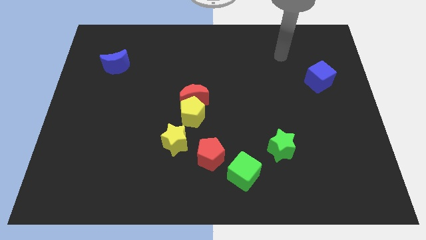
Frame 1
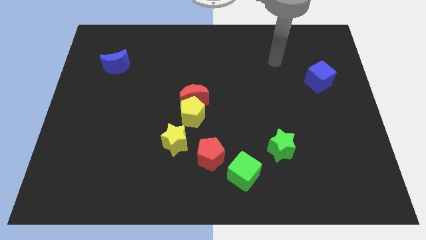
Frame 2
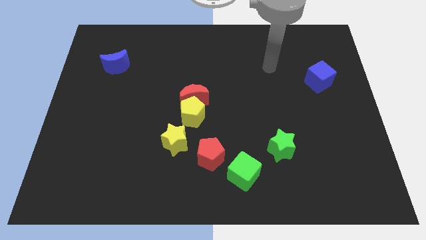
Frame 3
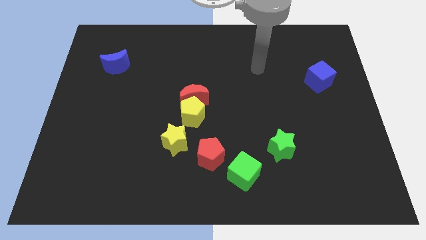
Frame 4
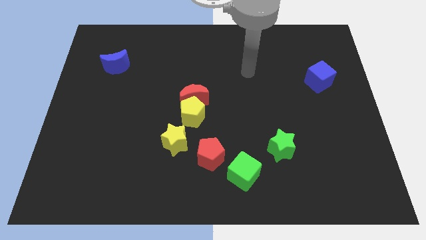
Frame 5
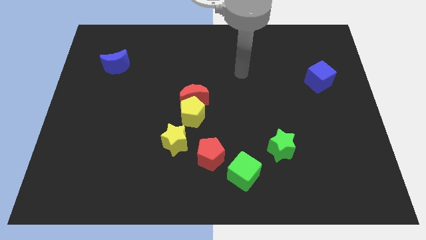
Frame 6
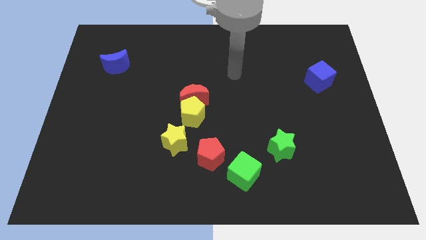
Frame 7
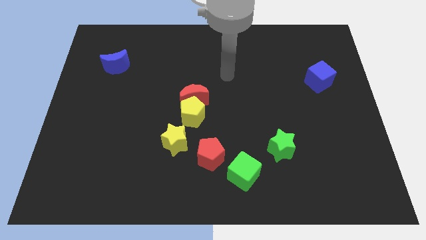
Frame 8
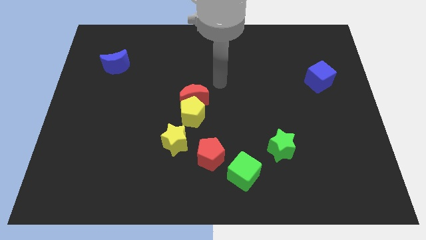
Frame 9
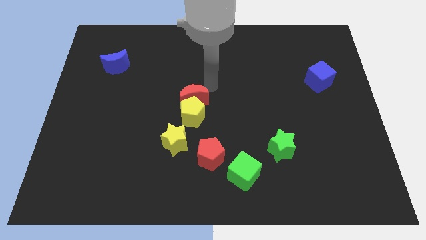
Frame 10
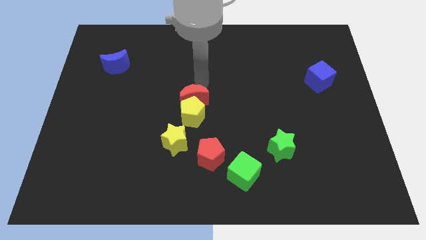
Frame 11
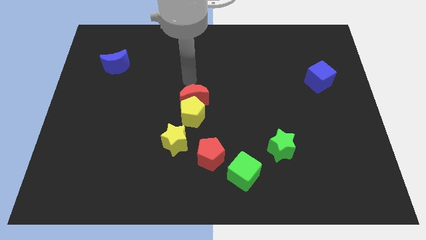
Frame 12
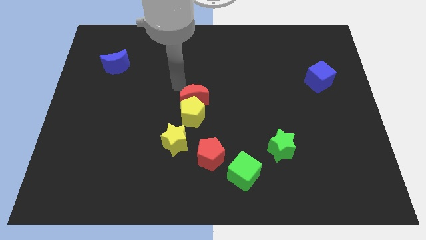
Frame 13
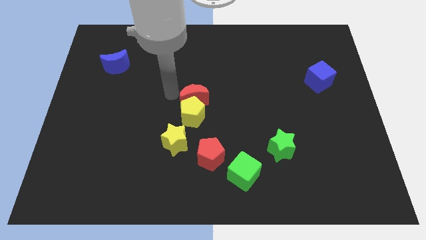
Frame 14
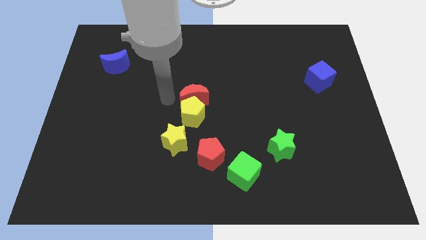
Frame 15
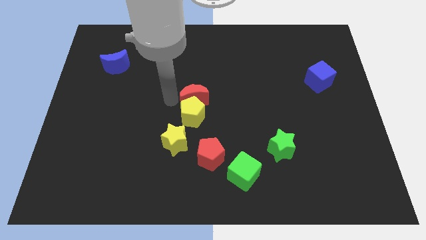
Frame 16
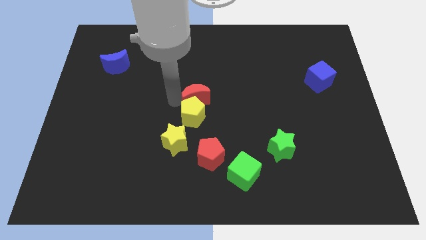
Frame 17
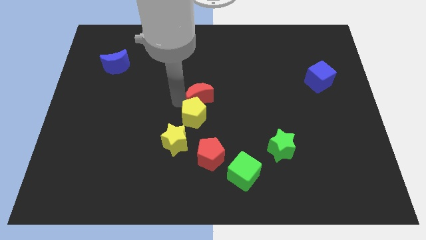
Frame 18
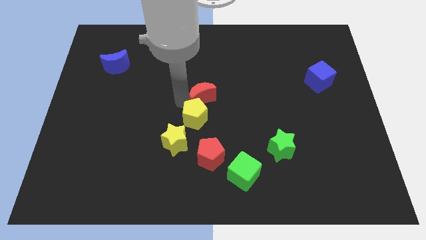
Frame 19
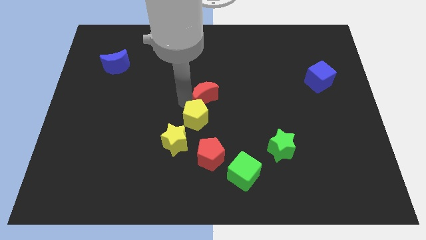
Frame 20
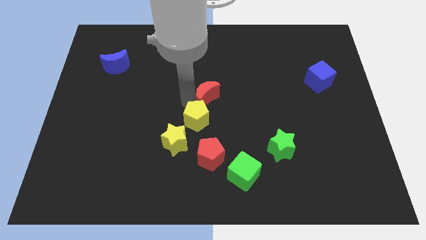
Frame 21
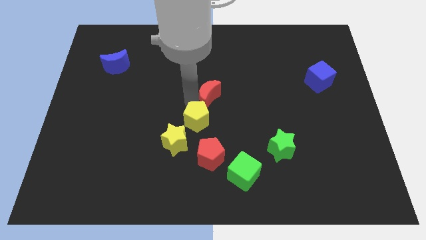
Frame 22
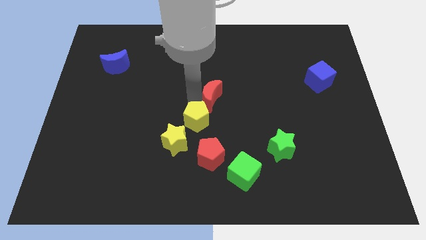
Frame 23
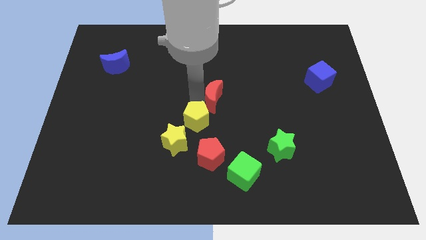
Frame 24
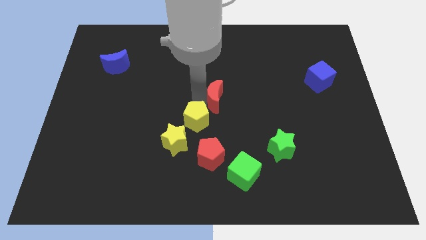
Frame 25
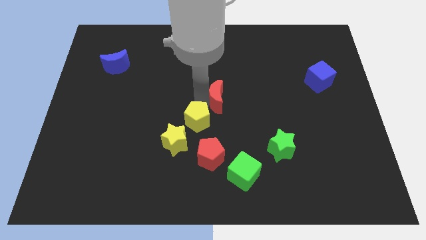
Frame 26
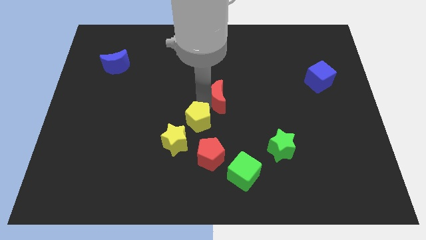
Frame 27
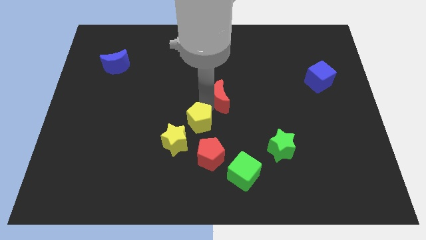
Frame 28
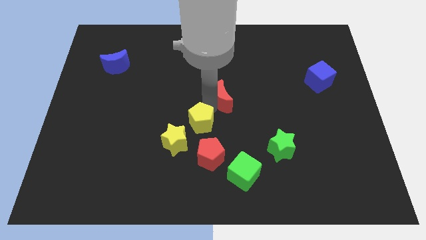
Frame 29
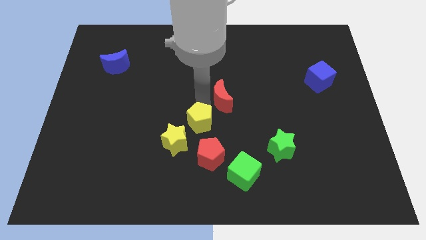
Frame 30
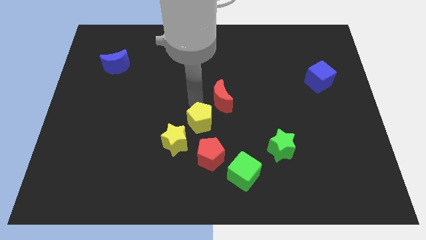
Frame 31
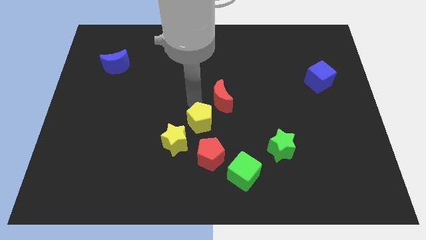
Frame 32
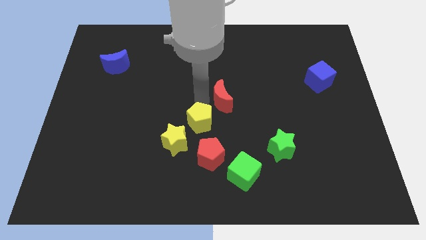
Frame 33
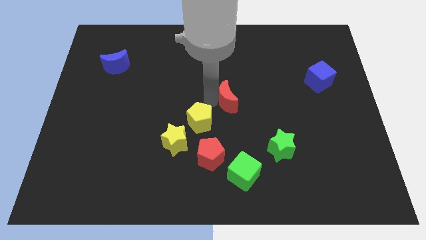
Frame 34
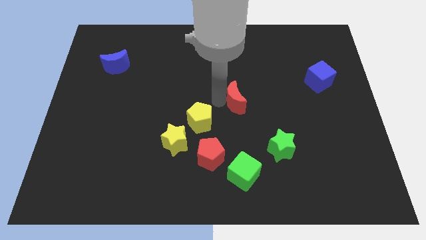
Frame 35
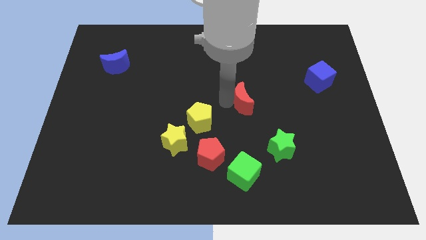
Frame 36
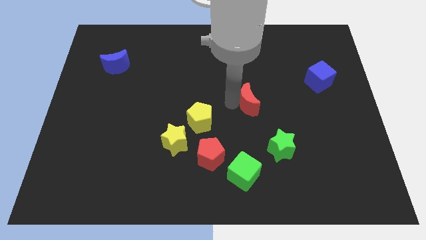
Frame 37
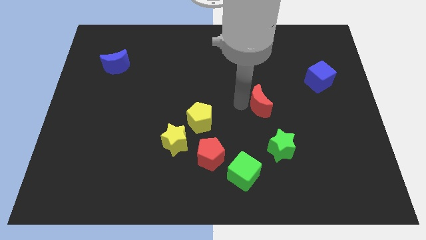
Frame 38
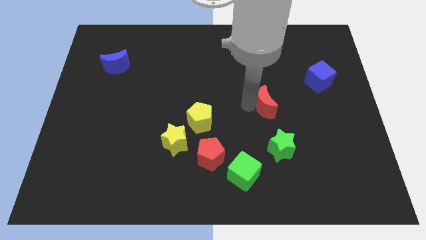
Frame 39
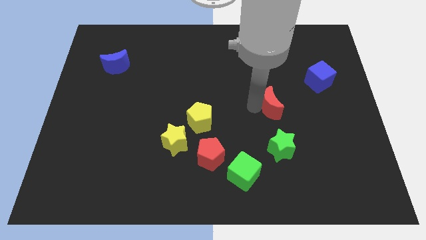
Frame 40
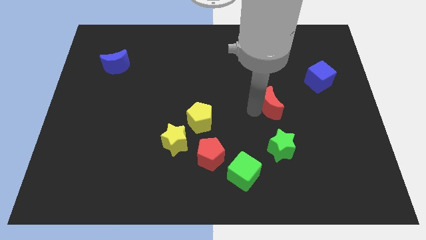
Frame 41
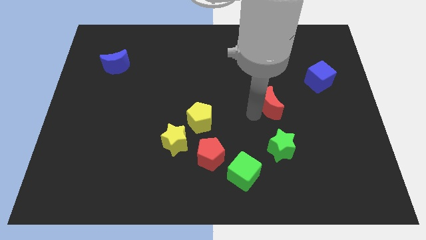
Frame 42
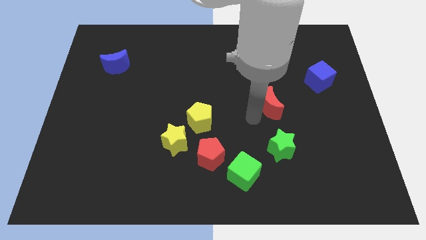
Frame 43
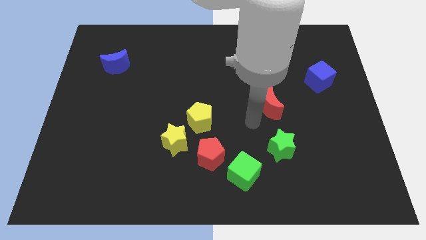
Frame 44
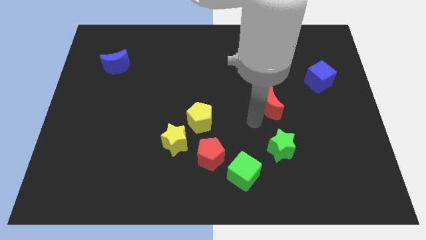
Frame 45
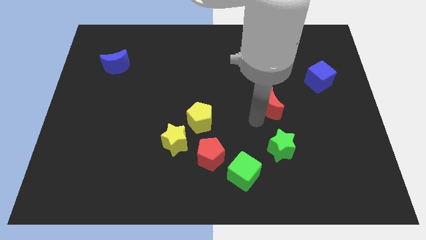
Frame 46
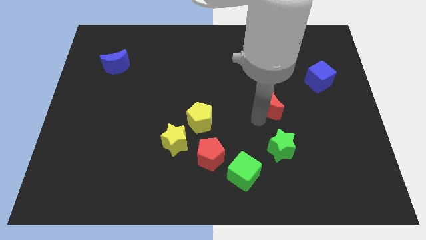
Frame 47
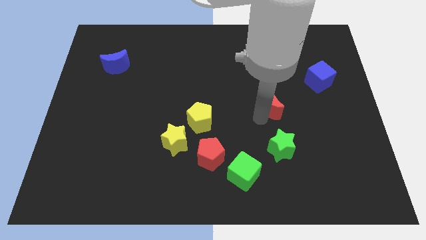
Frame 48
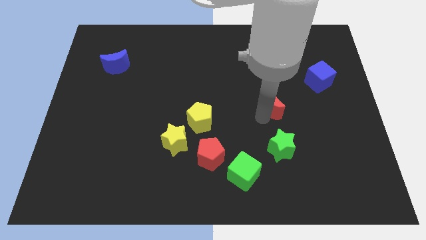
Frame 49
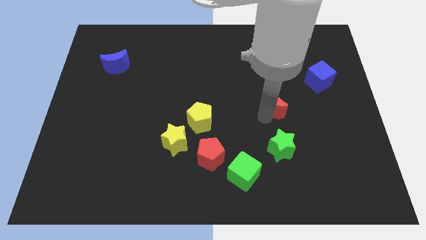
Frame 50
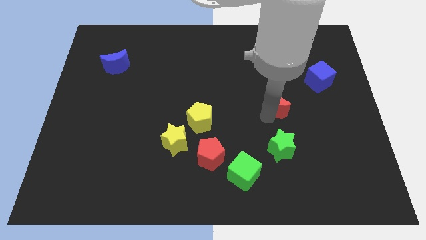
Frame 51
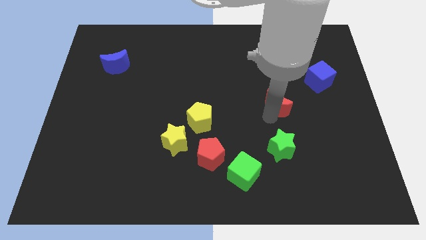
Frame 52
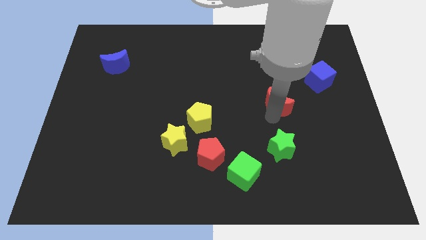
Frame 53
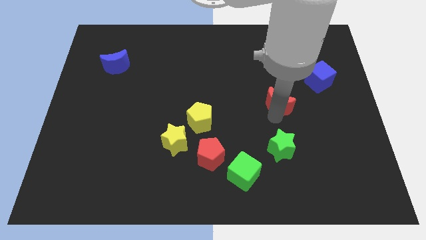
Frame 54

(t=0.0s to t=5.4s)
slide the red moon to the right

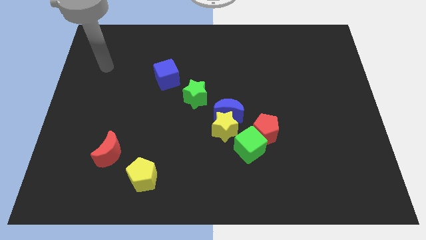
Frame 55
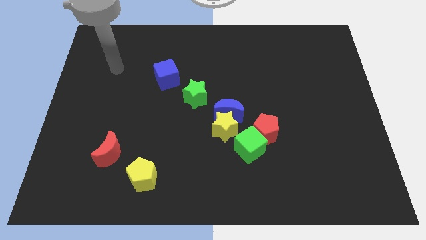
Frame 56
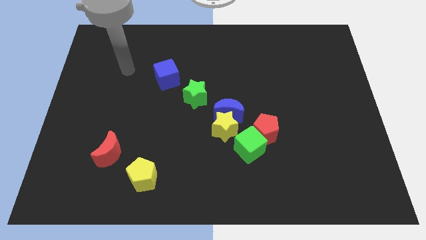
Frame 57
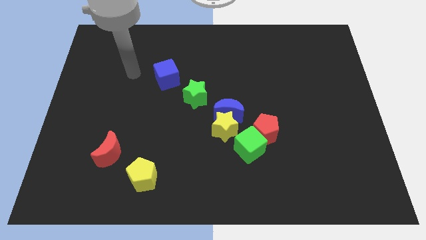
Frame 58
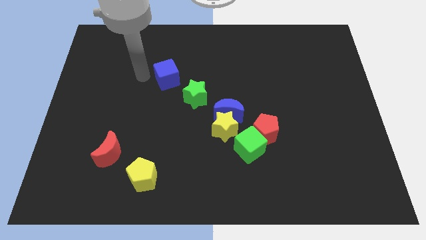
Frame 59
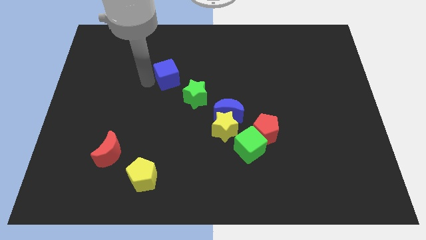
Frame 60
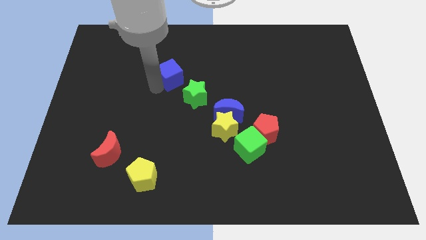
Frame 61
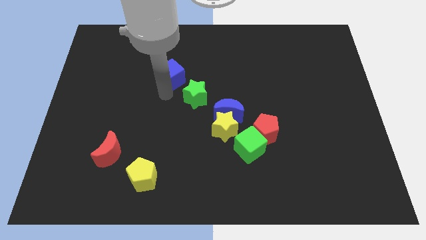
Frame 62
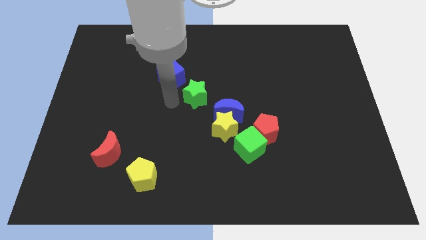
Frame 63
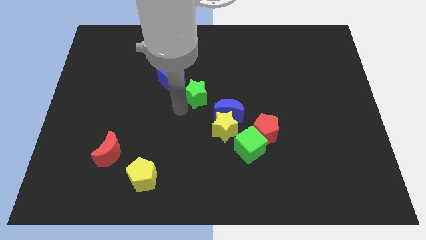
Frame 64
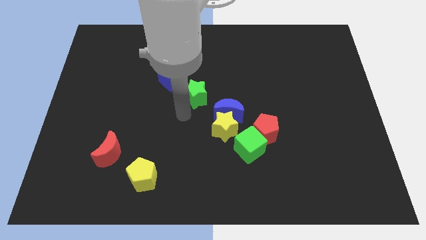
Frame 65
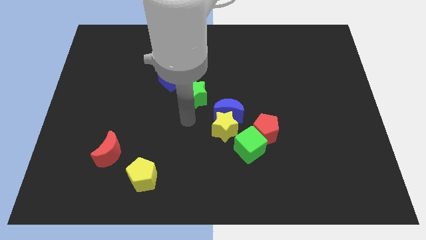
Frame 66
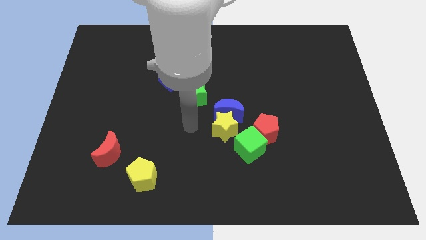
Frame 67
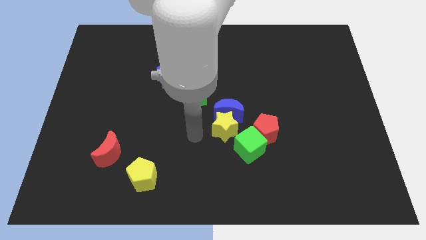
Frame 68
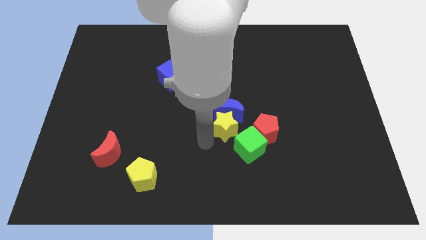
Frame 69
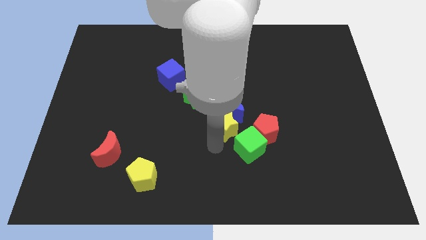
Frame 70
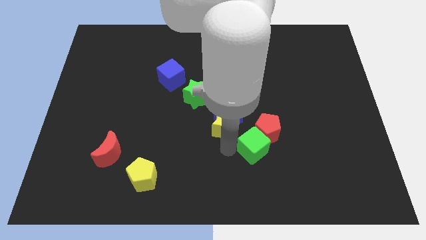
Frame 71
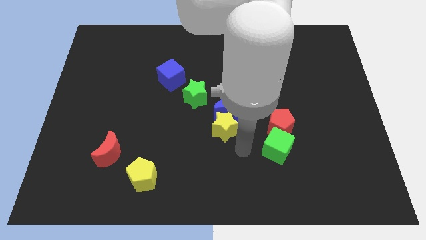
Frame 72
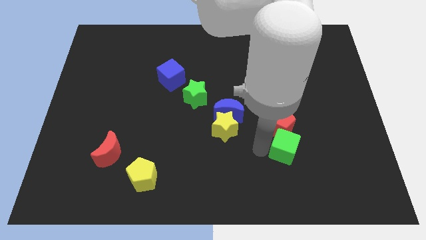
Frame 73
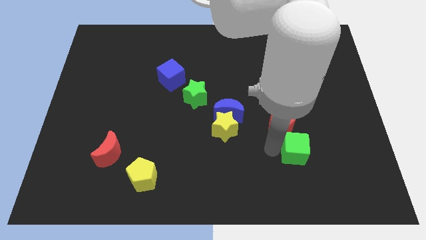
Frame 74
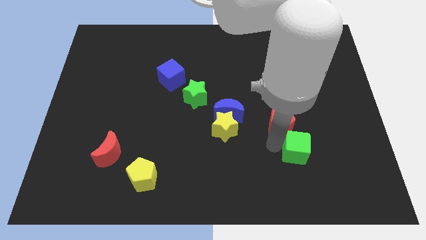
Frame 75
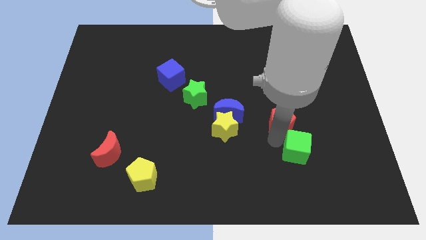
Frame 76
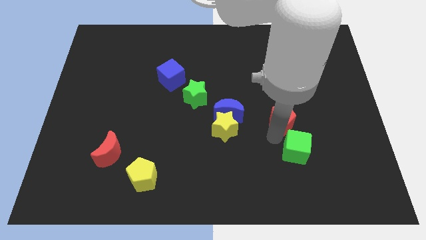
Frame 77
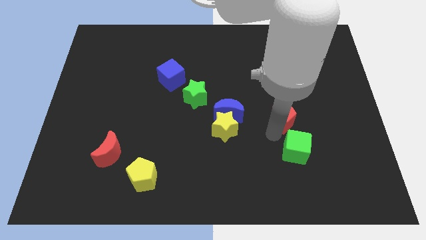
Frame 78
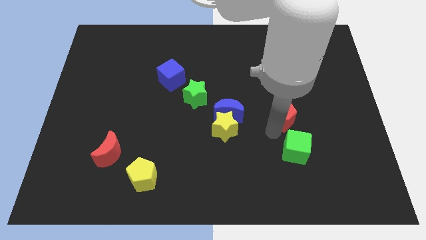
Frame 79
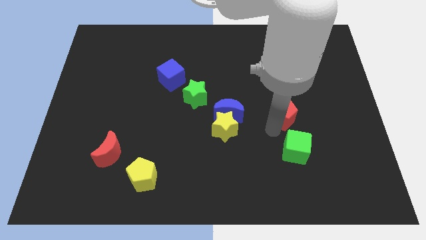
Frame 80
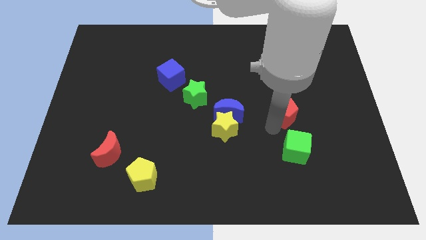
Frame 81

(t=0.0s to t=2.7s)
slide the red pentagon diagonally up and to the right a little
